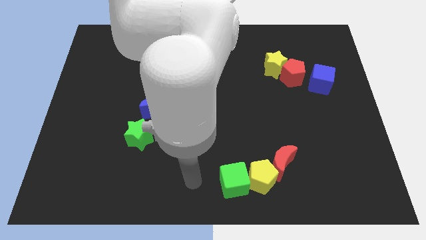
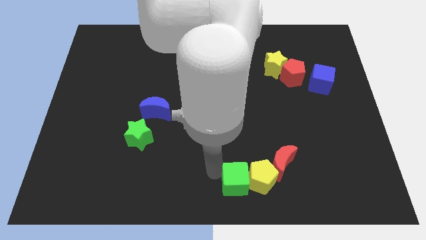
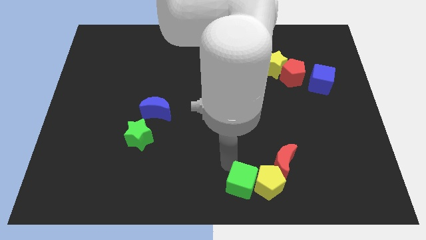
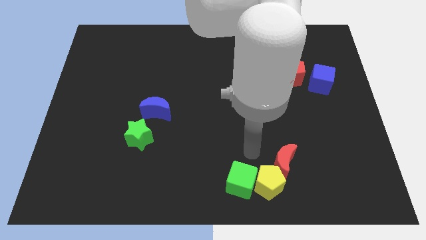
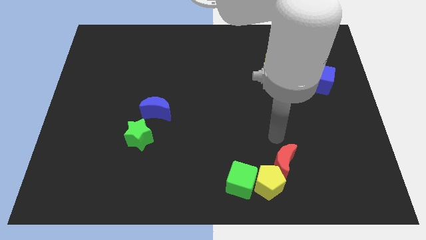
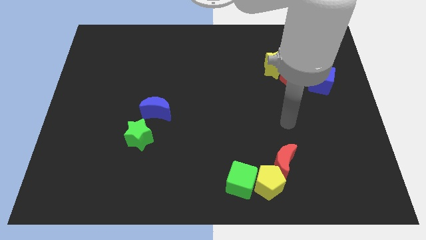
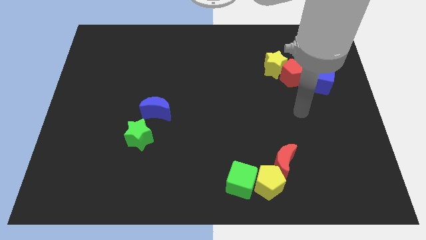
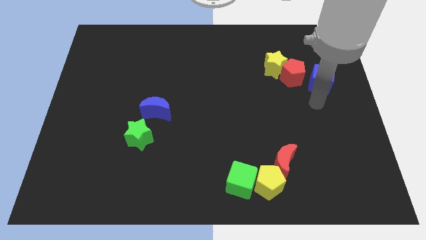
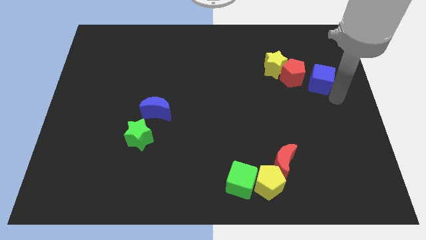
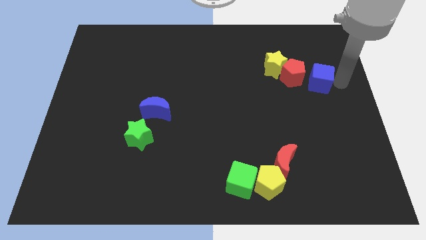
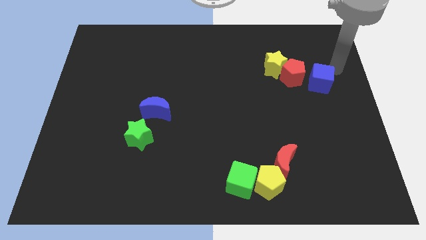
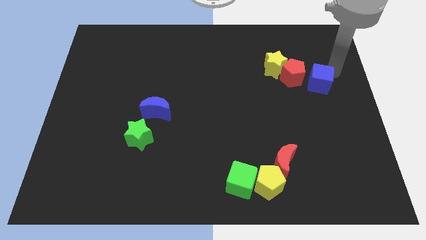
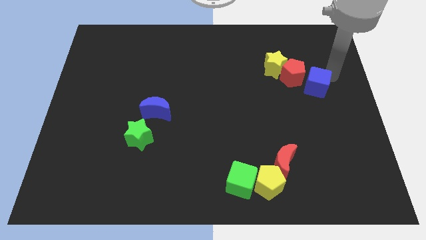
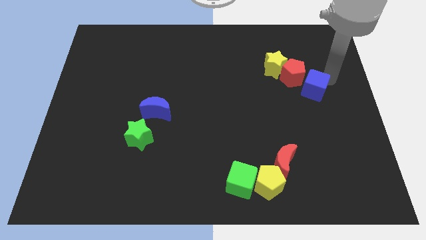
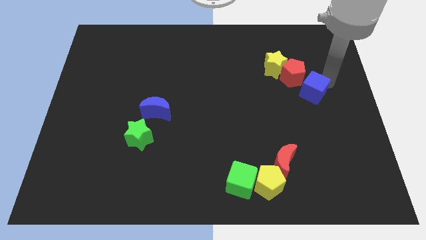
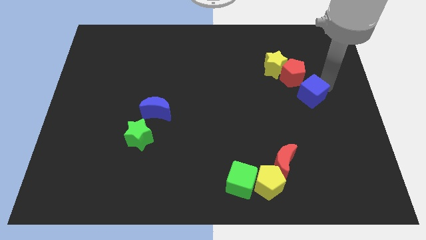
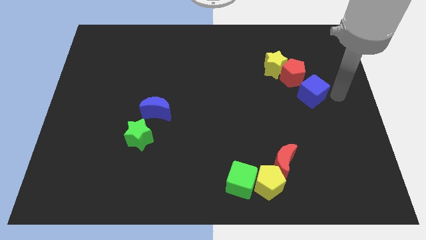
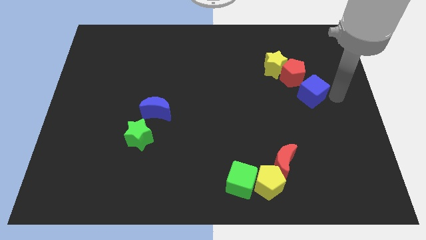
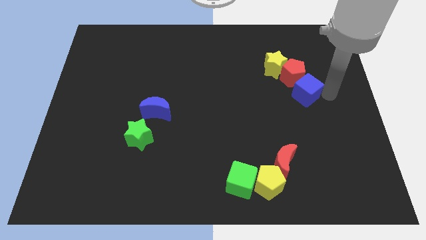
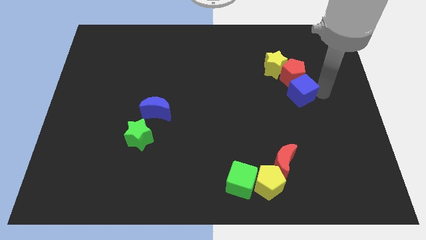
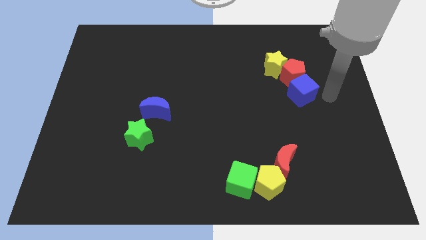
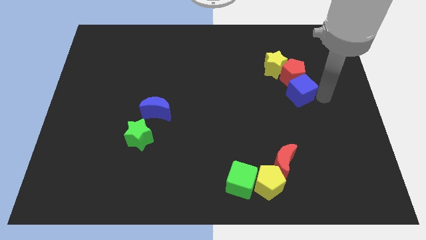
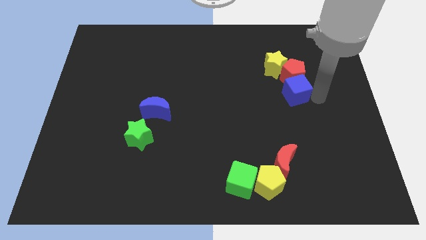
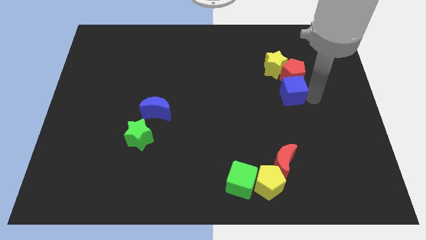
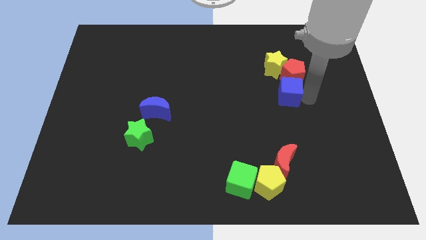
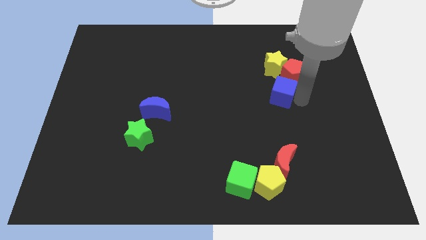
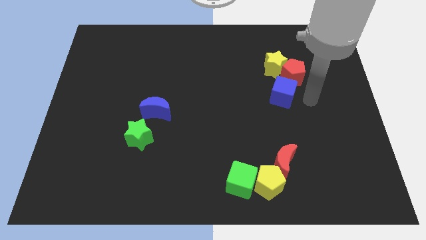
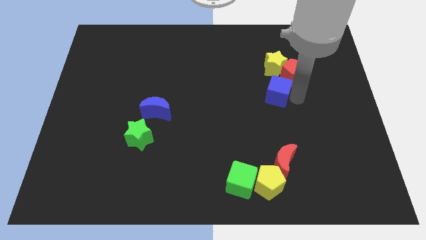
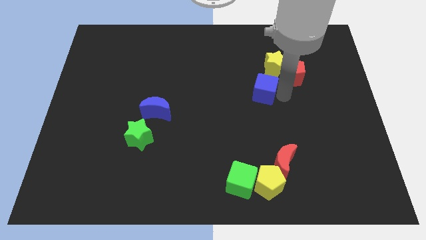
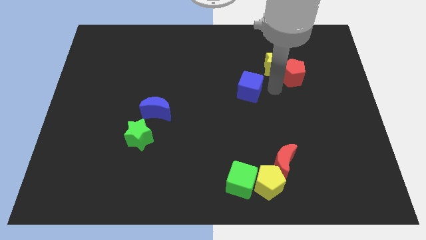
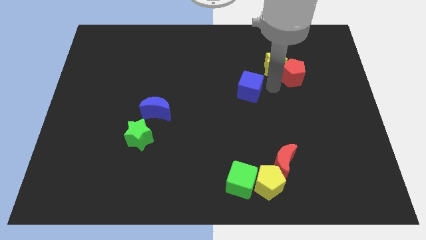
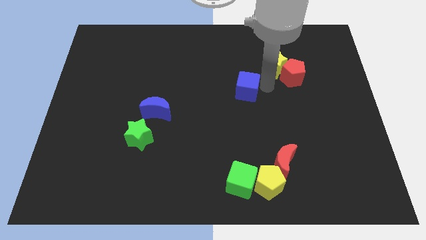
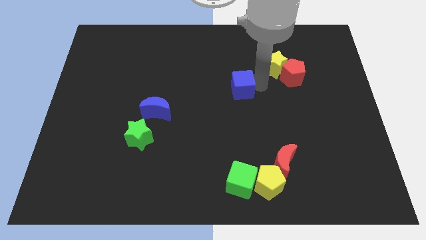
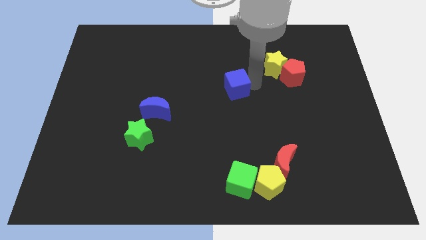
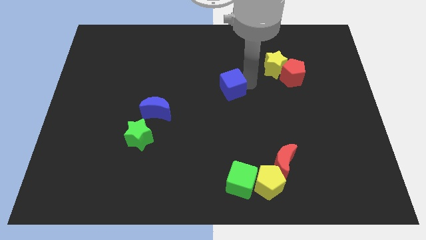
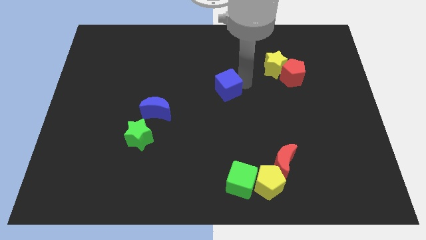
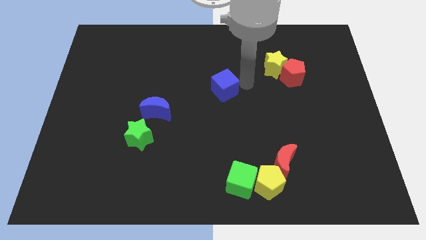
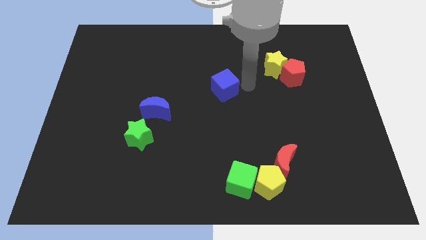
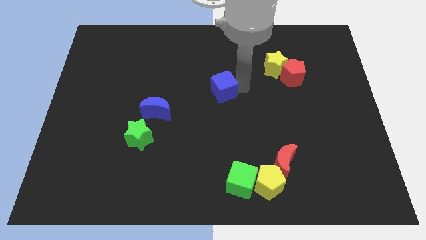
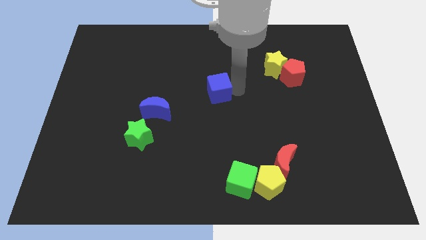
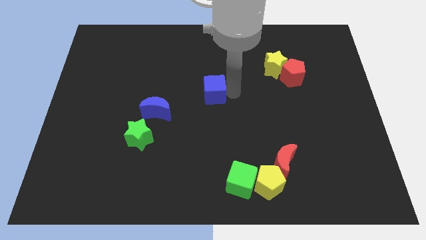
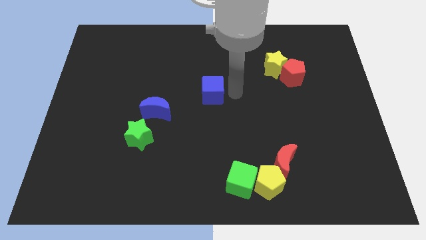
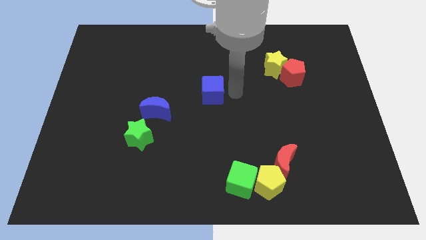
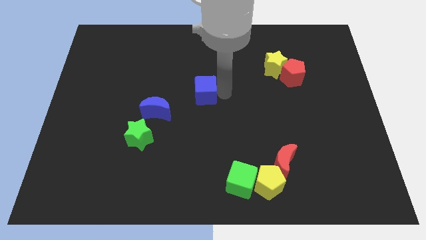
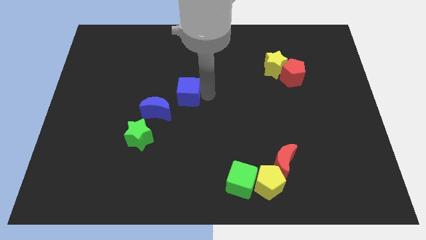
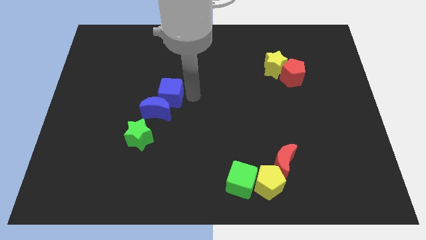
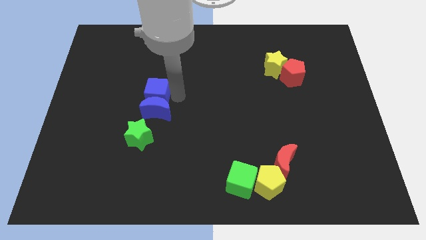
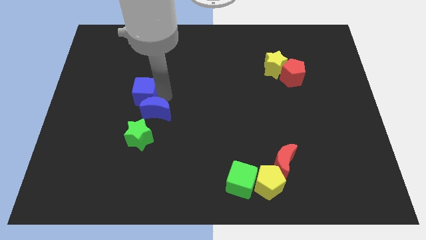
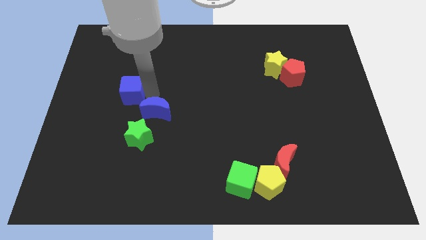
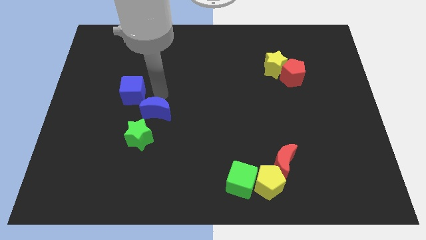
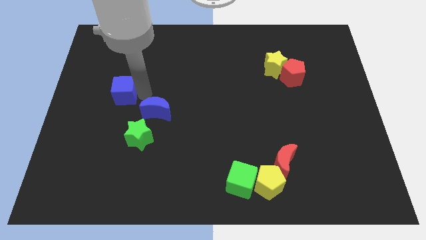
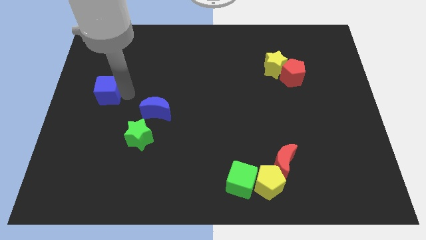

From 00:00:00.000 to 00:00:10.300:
slide the blue cube to the left side of the board
